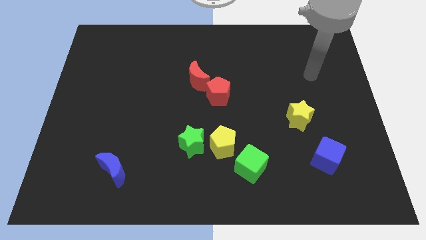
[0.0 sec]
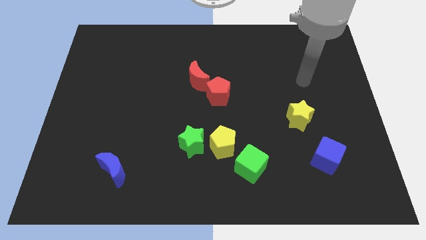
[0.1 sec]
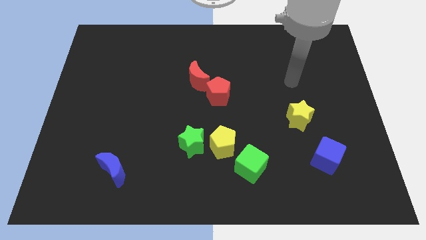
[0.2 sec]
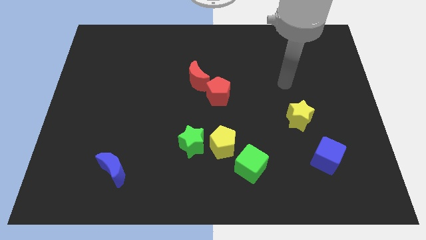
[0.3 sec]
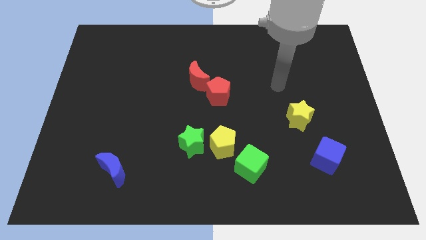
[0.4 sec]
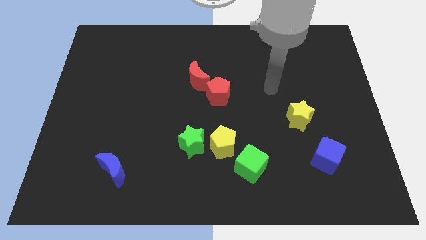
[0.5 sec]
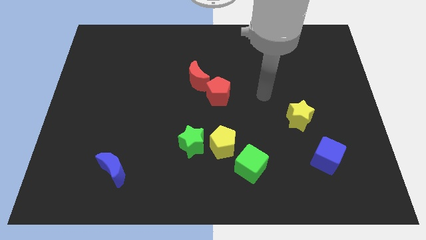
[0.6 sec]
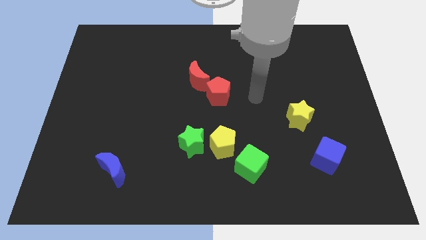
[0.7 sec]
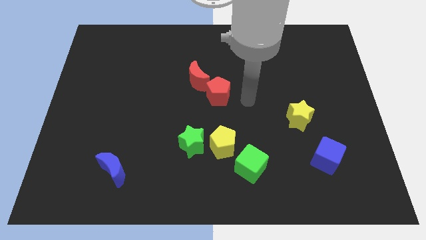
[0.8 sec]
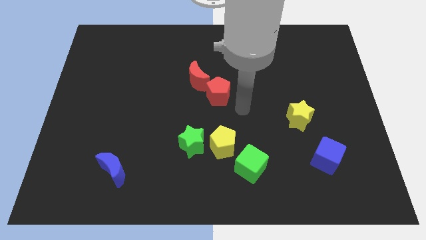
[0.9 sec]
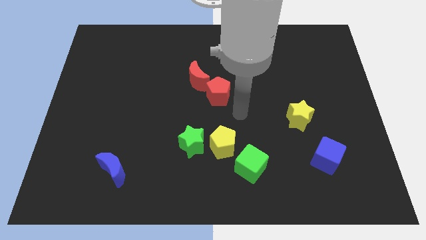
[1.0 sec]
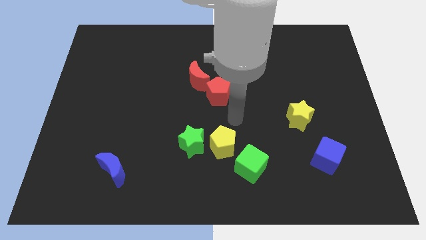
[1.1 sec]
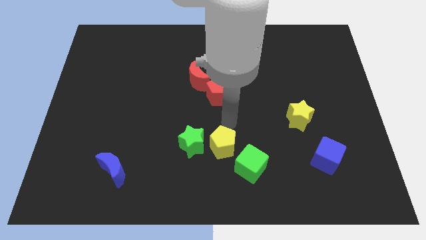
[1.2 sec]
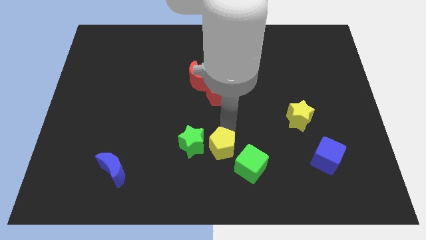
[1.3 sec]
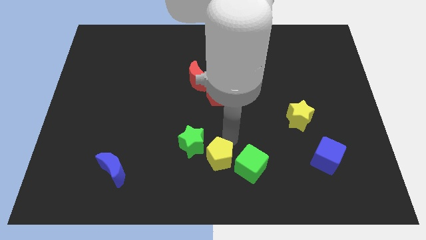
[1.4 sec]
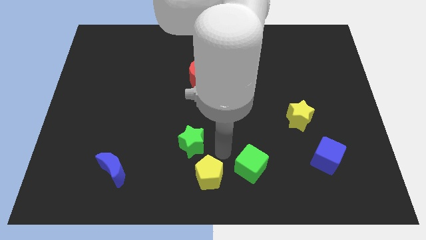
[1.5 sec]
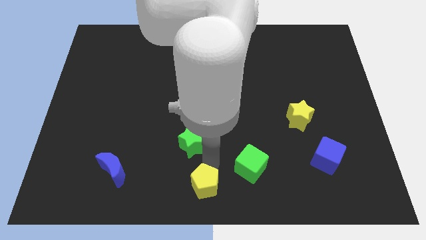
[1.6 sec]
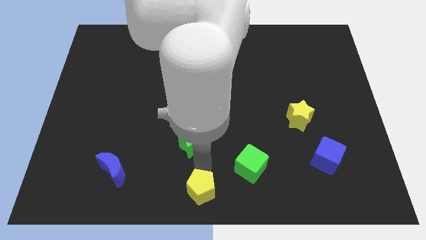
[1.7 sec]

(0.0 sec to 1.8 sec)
pull the green star apart from the yellow pentagon

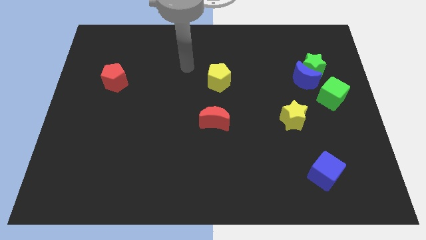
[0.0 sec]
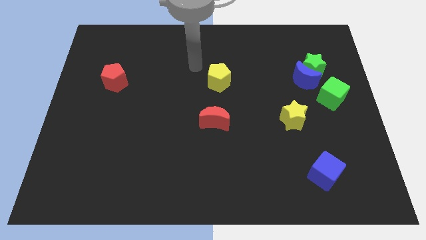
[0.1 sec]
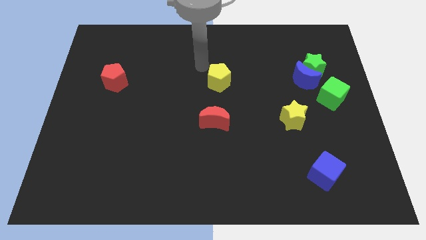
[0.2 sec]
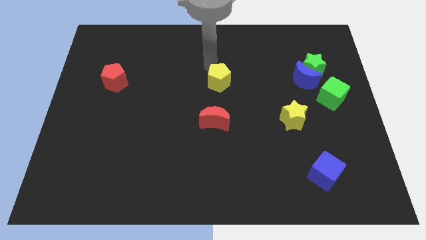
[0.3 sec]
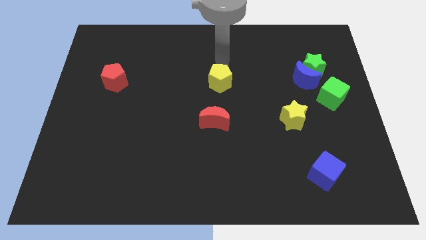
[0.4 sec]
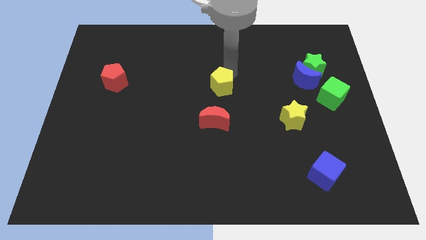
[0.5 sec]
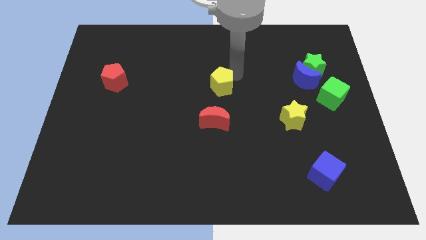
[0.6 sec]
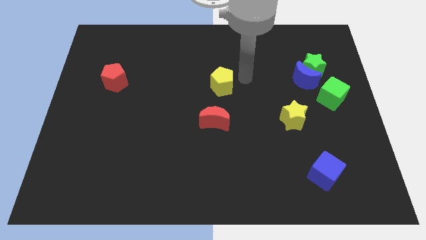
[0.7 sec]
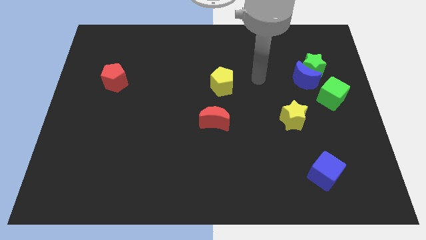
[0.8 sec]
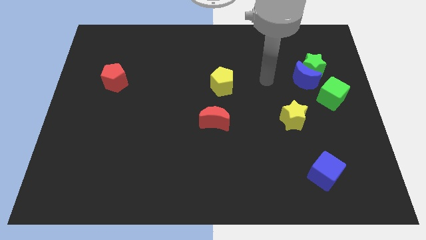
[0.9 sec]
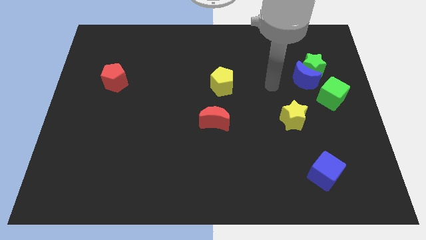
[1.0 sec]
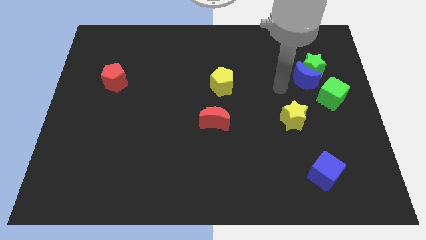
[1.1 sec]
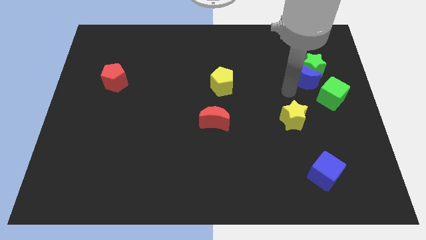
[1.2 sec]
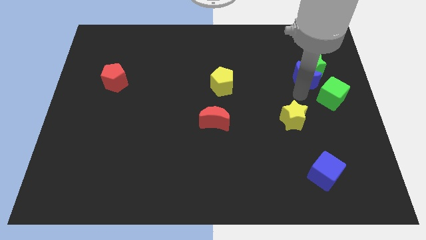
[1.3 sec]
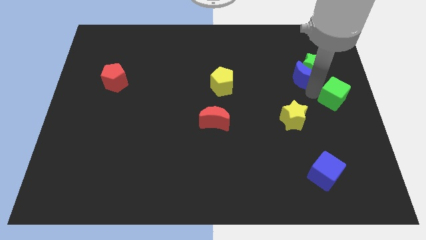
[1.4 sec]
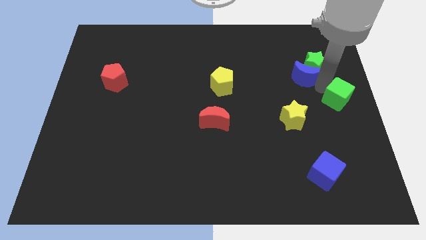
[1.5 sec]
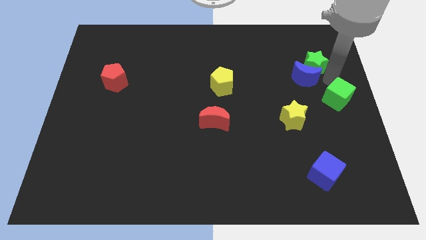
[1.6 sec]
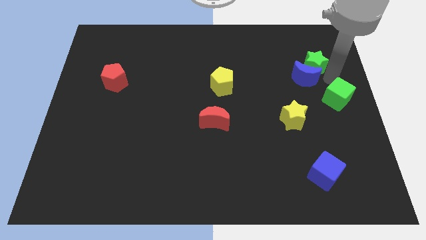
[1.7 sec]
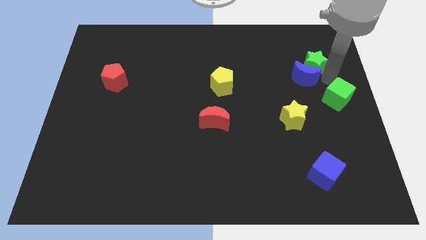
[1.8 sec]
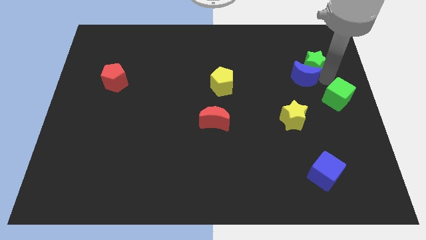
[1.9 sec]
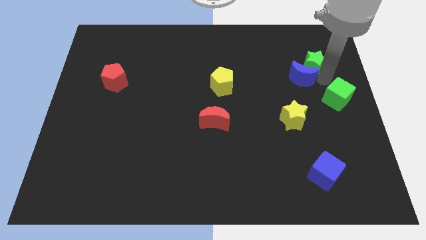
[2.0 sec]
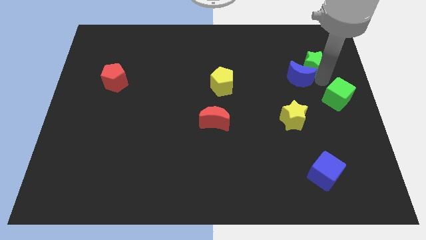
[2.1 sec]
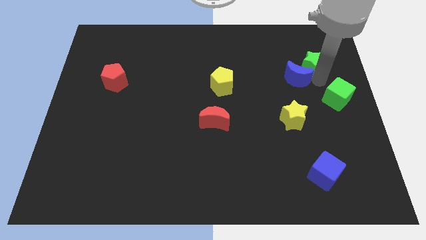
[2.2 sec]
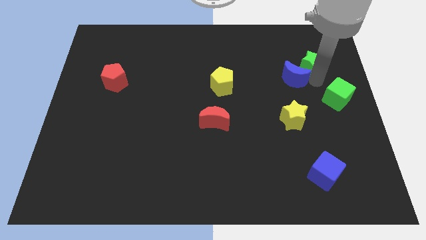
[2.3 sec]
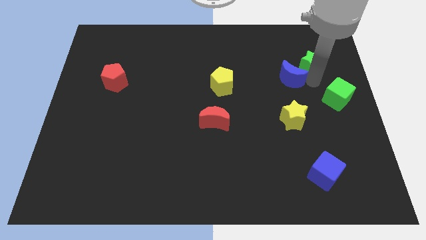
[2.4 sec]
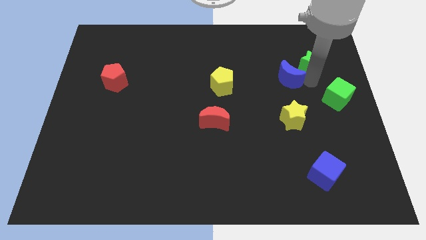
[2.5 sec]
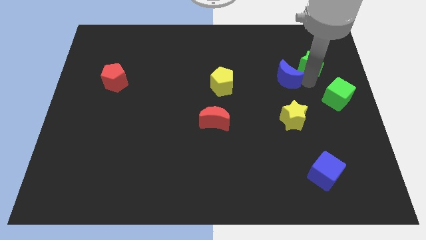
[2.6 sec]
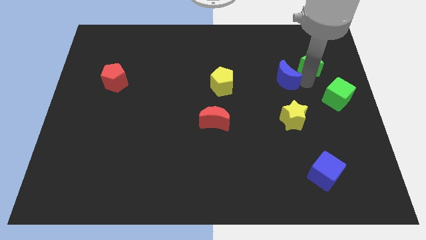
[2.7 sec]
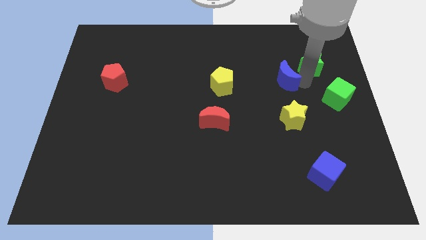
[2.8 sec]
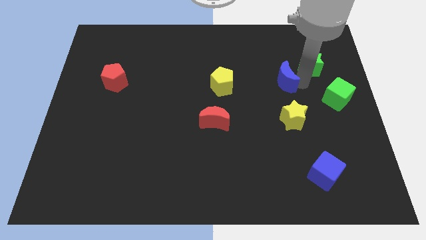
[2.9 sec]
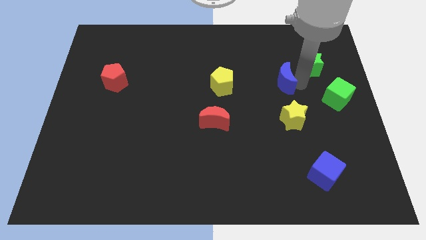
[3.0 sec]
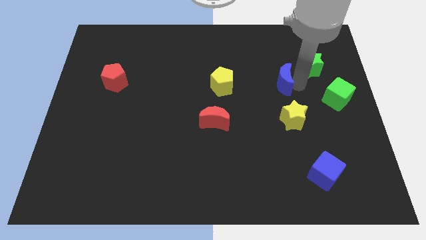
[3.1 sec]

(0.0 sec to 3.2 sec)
separate the blue moon from the green star and green cube

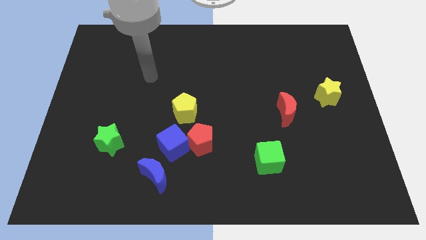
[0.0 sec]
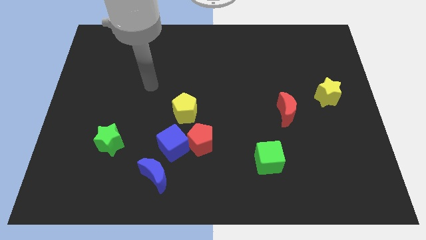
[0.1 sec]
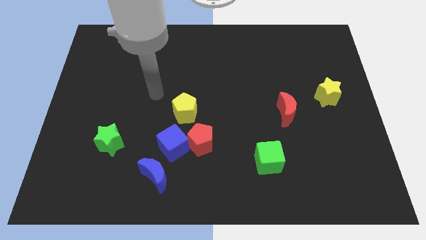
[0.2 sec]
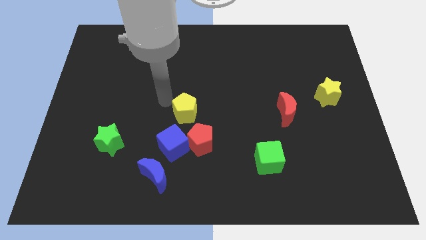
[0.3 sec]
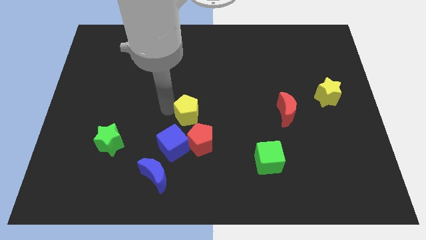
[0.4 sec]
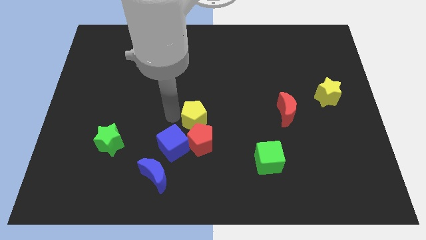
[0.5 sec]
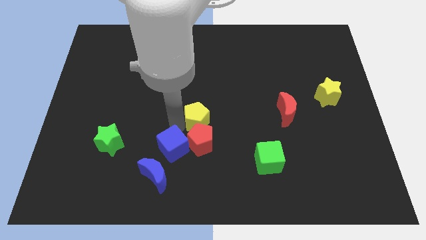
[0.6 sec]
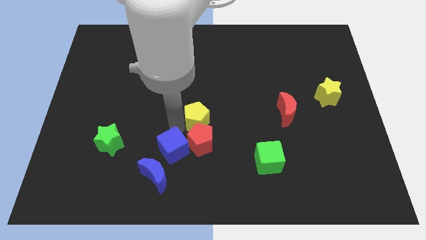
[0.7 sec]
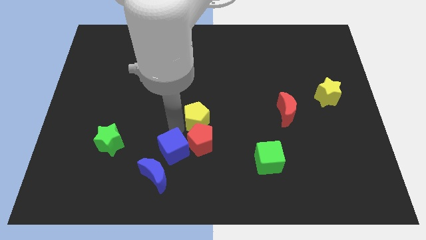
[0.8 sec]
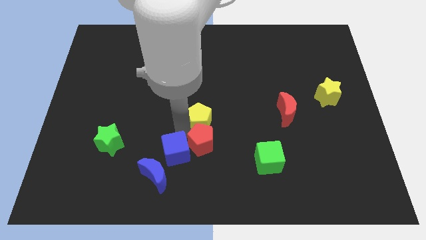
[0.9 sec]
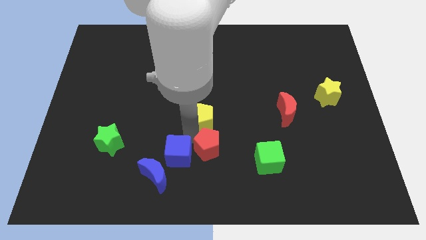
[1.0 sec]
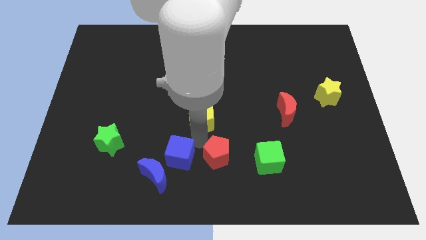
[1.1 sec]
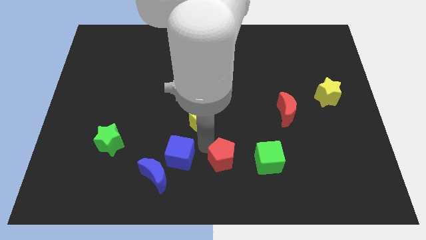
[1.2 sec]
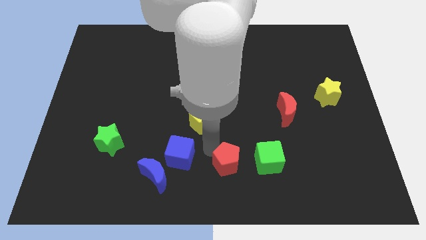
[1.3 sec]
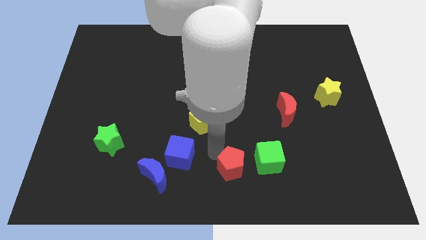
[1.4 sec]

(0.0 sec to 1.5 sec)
move the red pentagon away from the blue cube and yellow pentagon

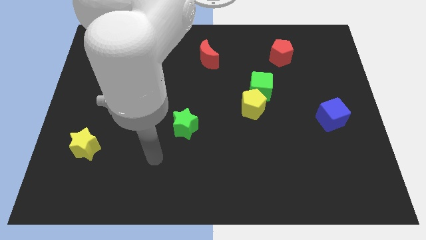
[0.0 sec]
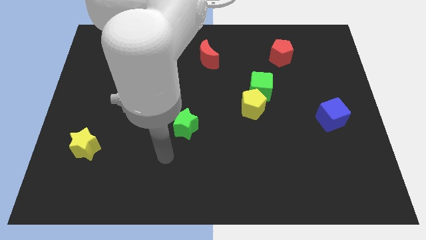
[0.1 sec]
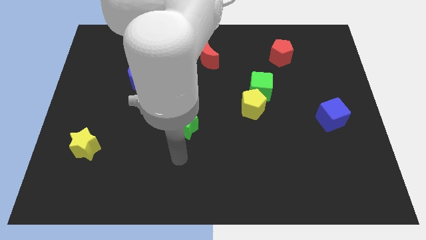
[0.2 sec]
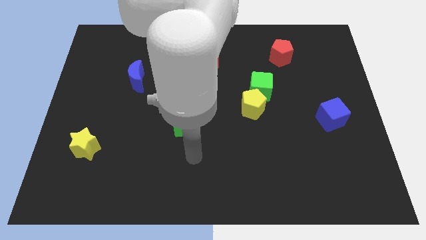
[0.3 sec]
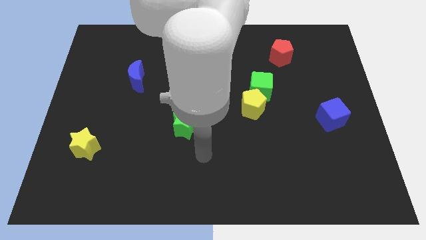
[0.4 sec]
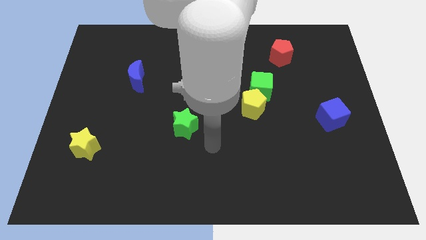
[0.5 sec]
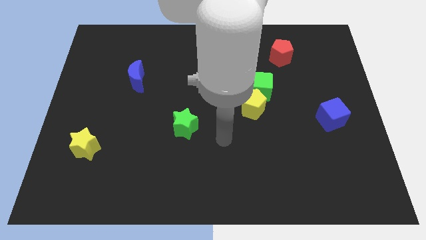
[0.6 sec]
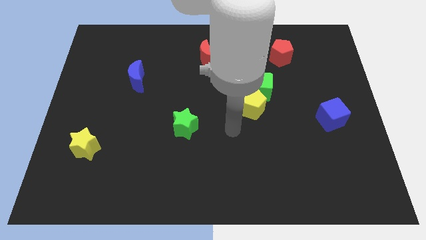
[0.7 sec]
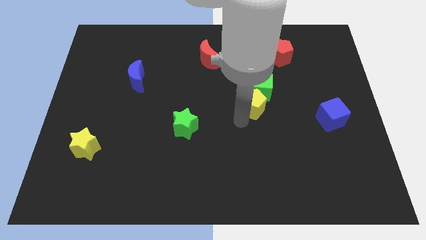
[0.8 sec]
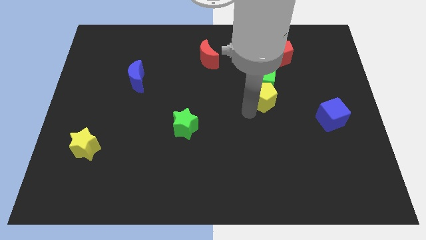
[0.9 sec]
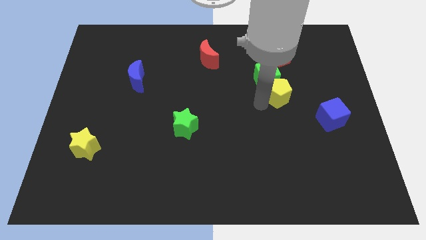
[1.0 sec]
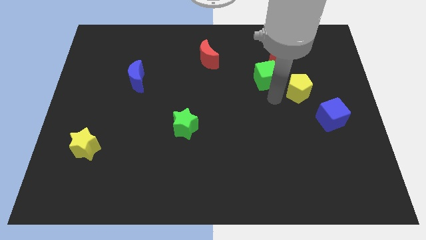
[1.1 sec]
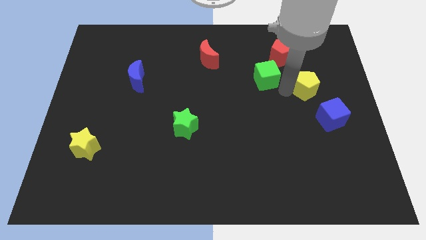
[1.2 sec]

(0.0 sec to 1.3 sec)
separate the green cube from the yellow pentagon

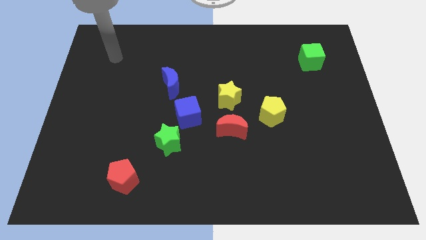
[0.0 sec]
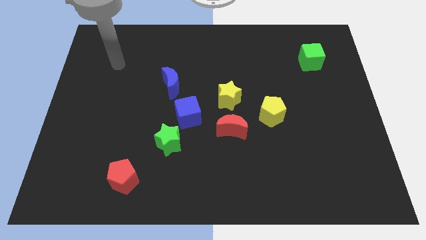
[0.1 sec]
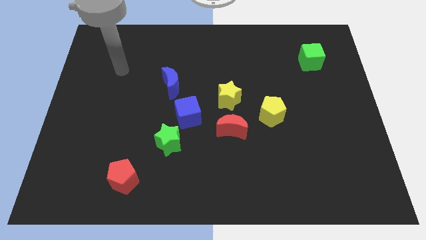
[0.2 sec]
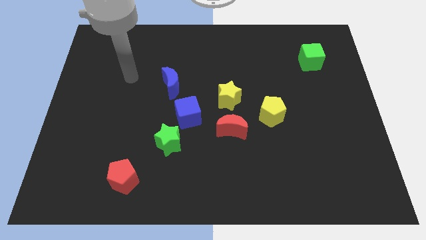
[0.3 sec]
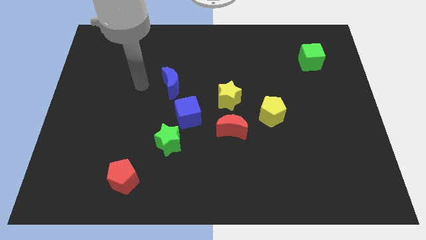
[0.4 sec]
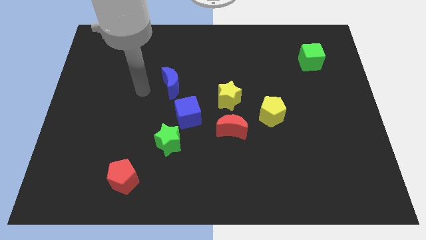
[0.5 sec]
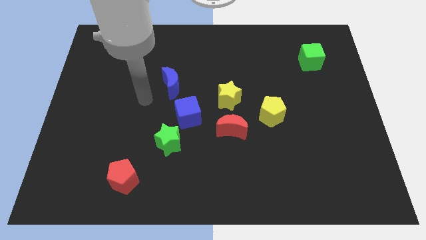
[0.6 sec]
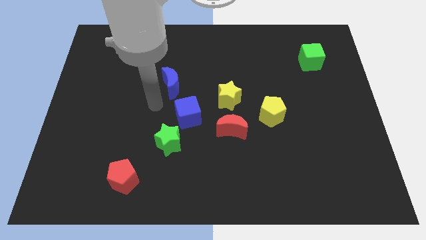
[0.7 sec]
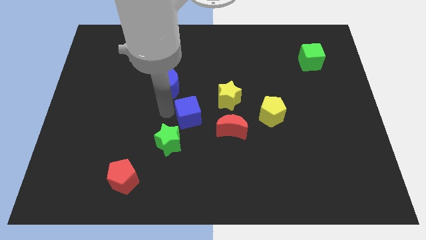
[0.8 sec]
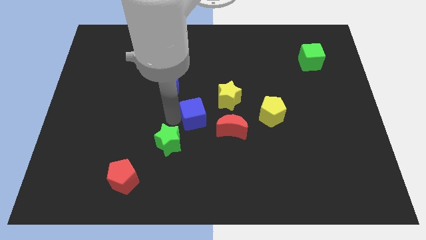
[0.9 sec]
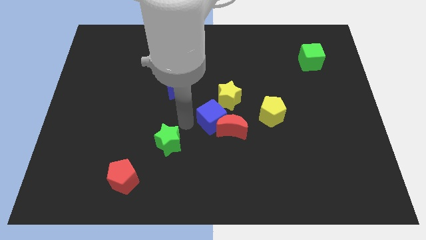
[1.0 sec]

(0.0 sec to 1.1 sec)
separate the green star from the blue cube

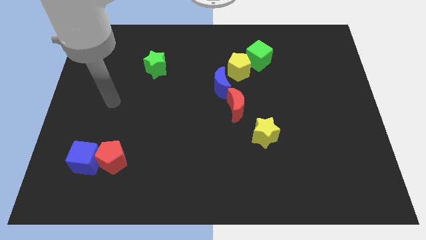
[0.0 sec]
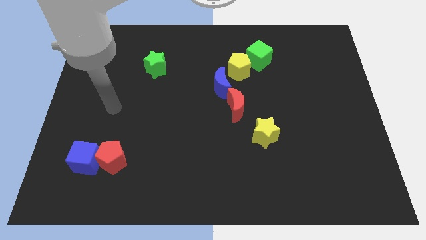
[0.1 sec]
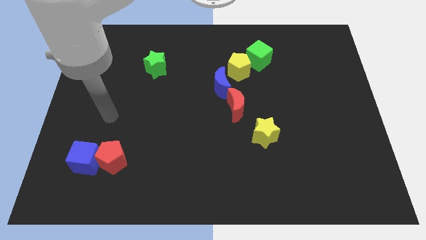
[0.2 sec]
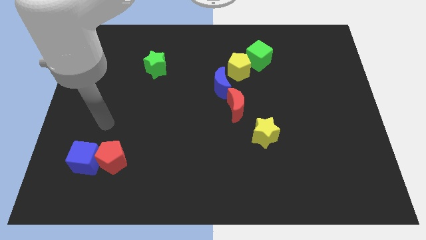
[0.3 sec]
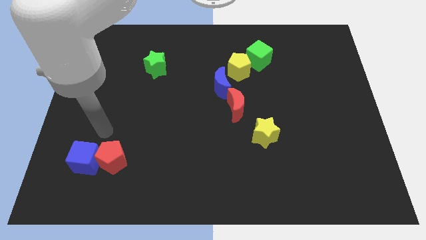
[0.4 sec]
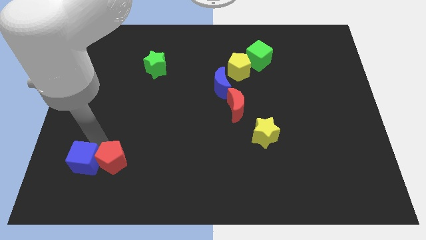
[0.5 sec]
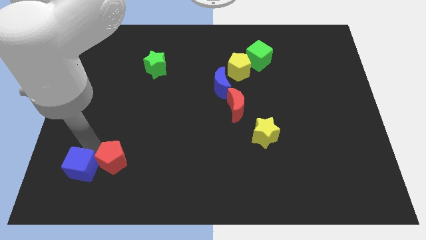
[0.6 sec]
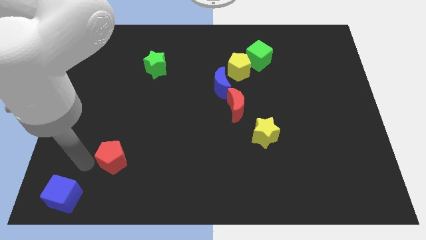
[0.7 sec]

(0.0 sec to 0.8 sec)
separate the red pentagon from the blue cube
